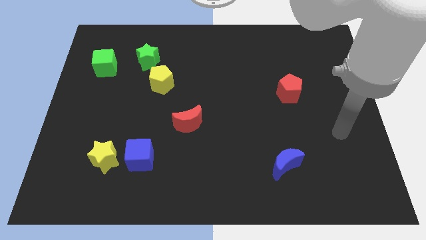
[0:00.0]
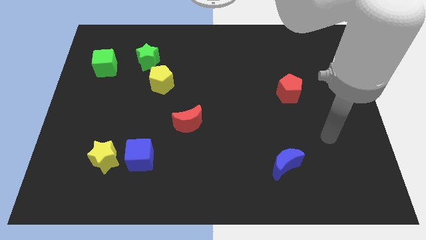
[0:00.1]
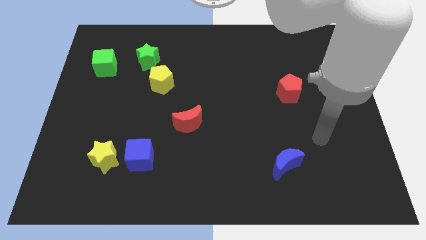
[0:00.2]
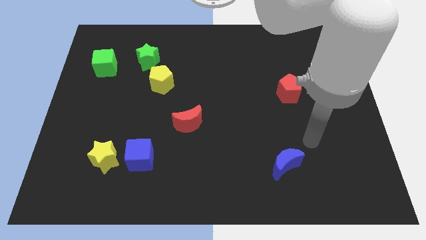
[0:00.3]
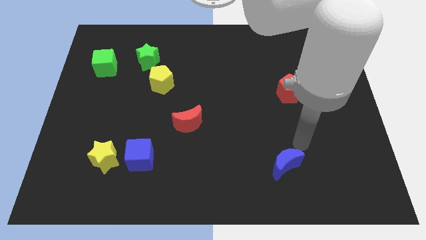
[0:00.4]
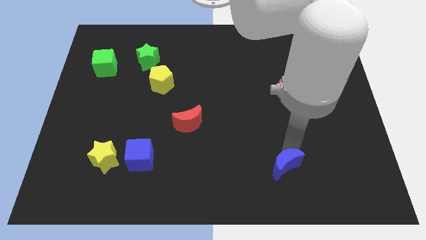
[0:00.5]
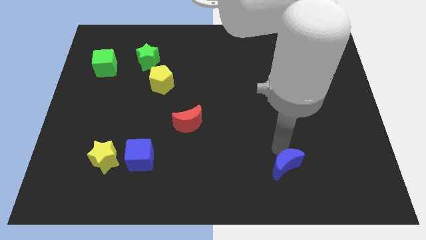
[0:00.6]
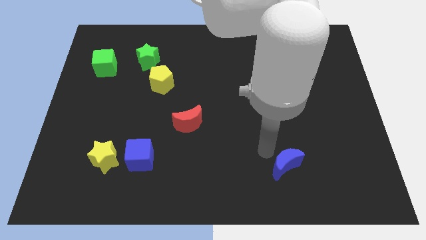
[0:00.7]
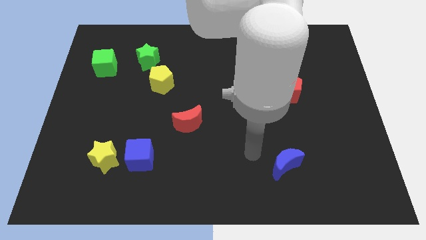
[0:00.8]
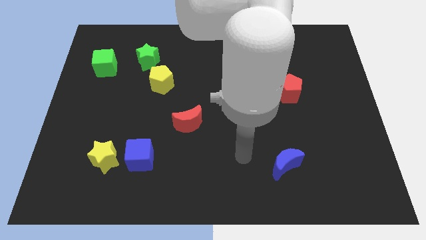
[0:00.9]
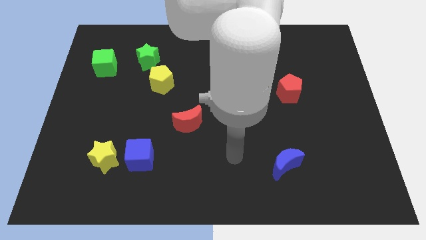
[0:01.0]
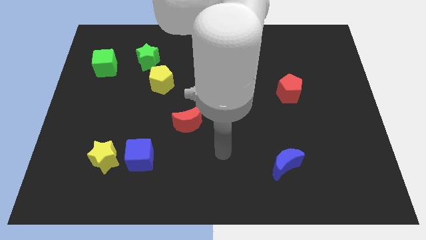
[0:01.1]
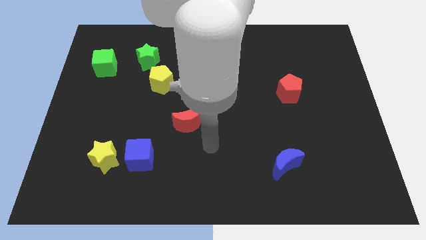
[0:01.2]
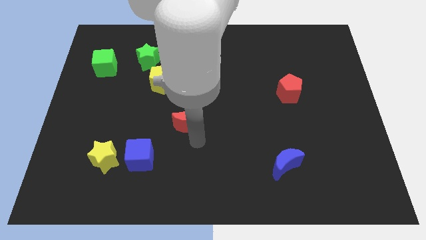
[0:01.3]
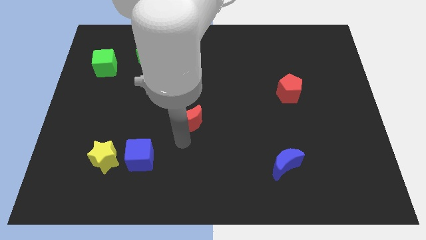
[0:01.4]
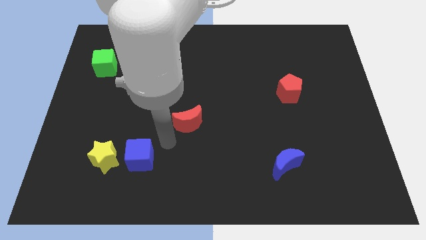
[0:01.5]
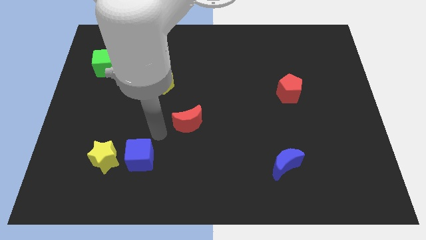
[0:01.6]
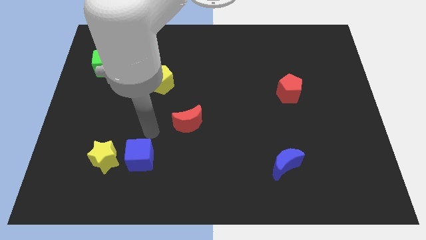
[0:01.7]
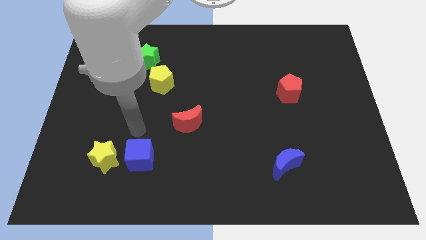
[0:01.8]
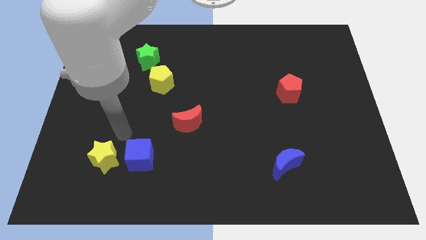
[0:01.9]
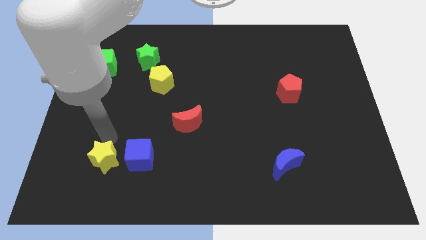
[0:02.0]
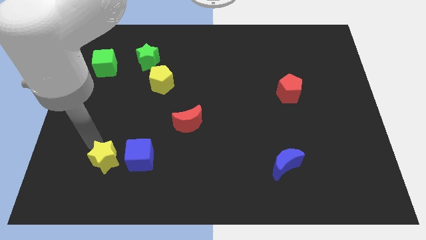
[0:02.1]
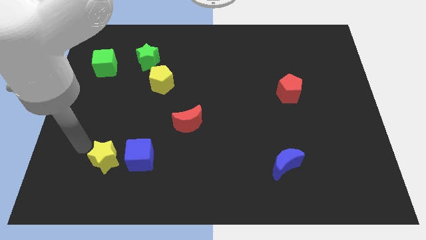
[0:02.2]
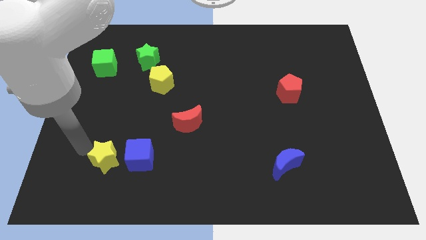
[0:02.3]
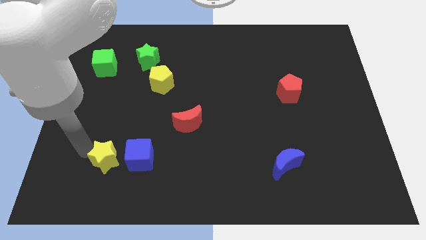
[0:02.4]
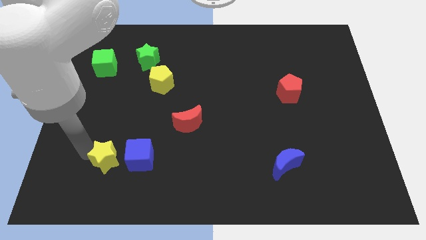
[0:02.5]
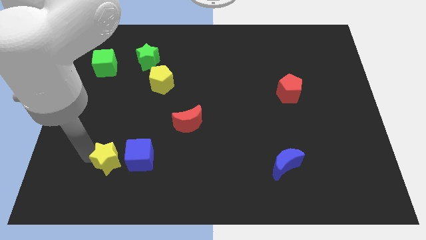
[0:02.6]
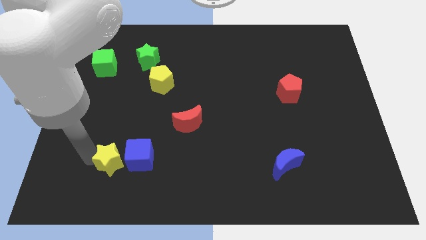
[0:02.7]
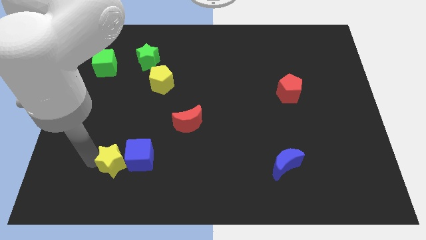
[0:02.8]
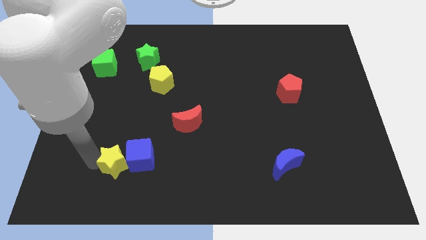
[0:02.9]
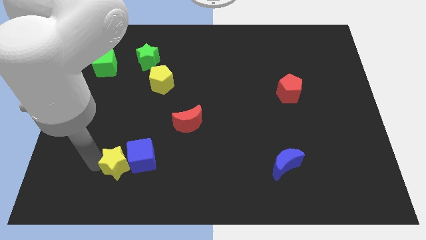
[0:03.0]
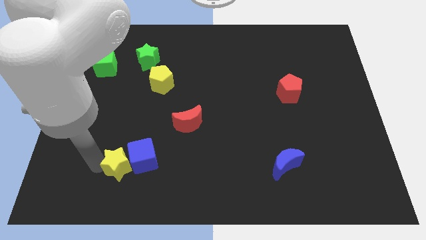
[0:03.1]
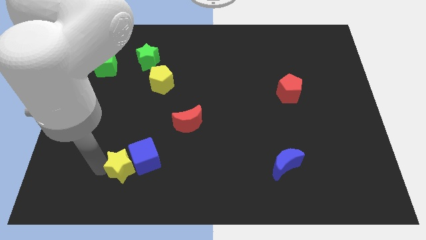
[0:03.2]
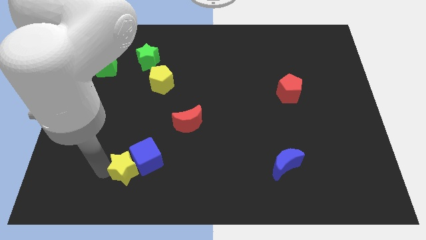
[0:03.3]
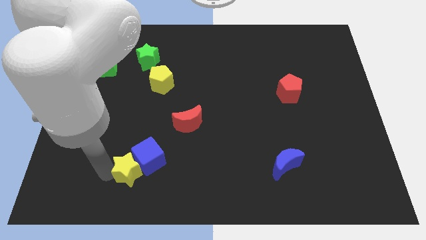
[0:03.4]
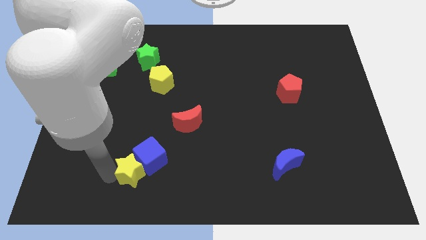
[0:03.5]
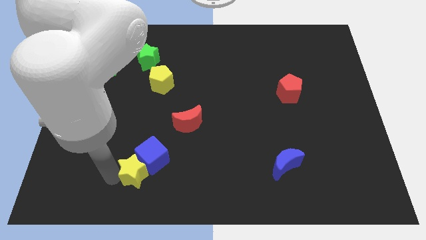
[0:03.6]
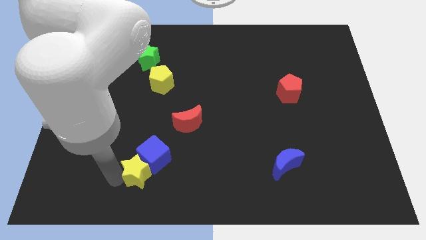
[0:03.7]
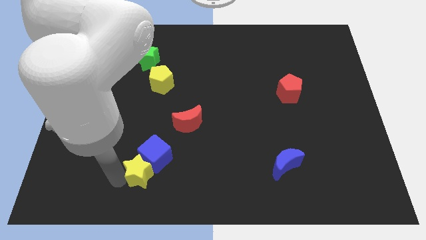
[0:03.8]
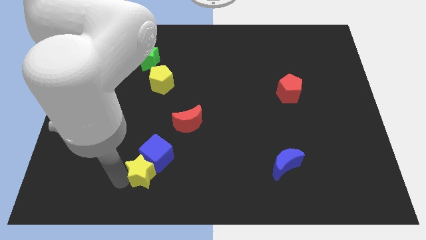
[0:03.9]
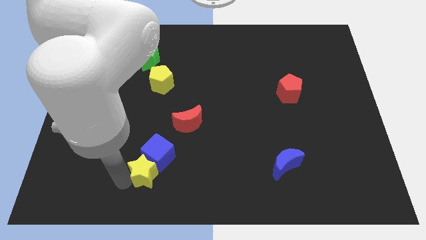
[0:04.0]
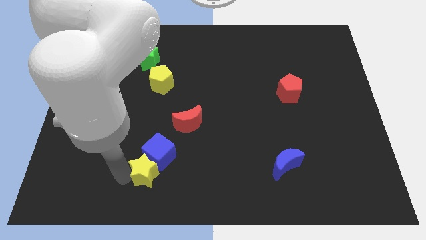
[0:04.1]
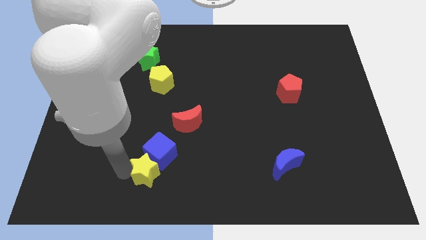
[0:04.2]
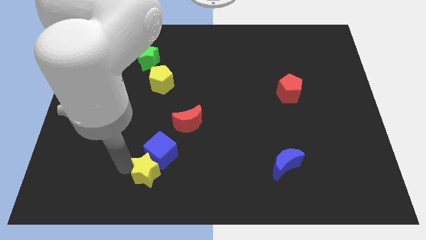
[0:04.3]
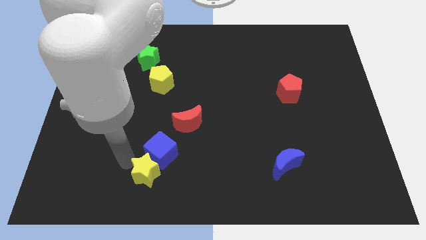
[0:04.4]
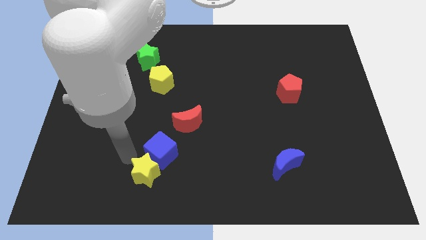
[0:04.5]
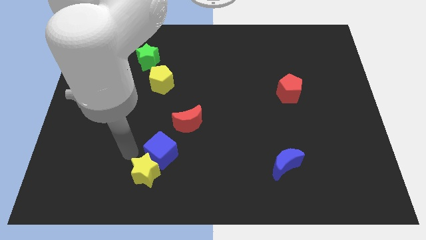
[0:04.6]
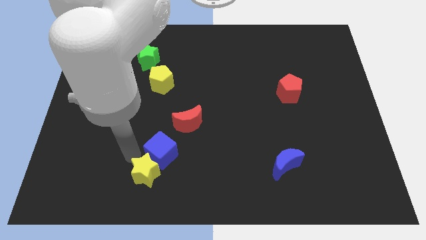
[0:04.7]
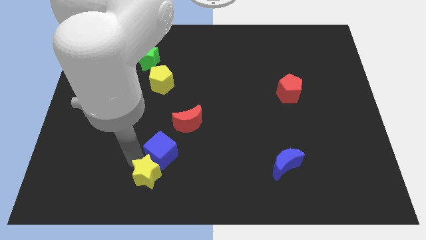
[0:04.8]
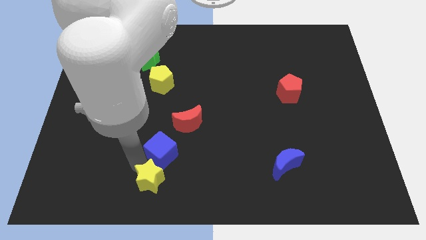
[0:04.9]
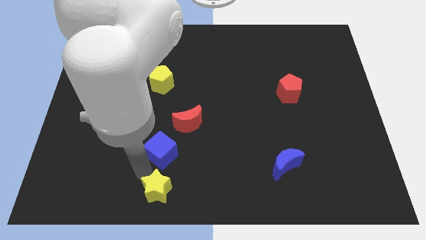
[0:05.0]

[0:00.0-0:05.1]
put the yellow star to the bottom side

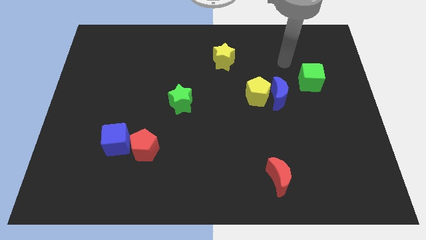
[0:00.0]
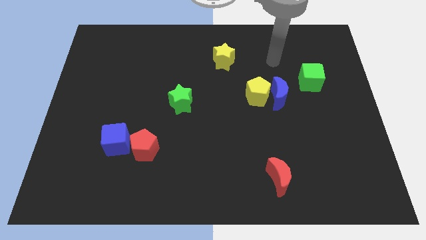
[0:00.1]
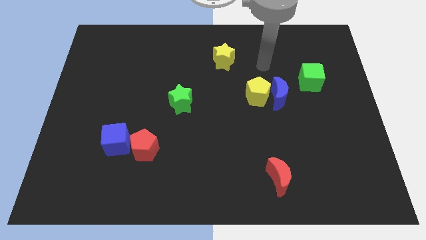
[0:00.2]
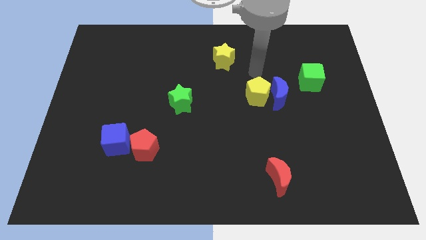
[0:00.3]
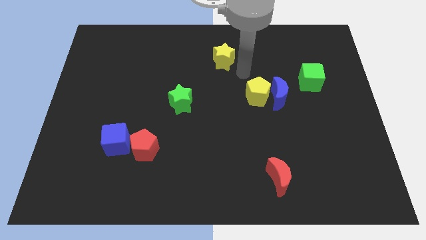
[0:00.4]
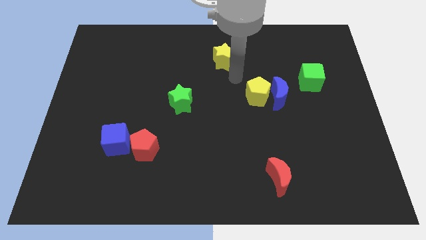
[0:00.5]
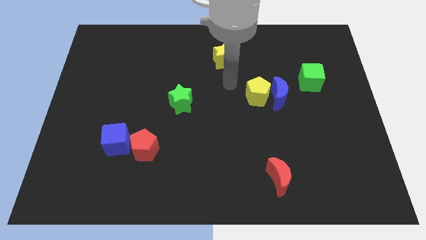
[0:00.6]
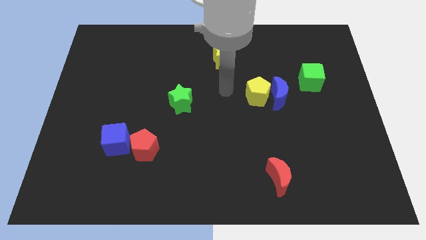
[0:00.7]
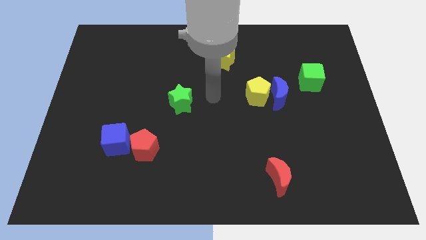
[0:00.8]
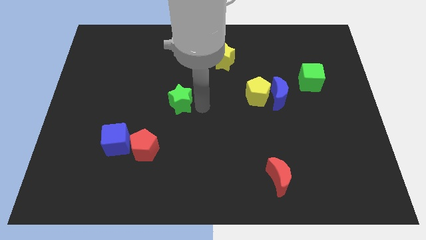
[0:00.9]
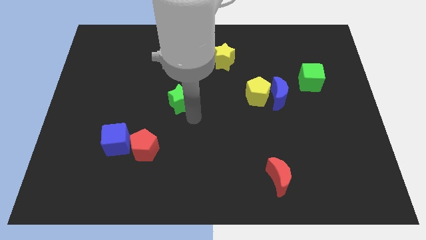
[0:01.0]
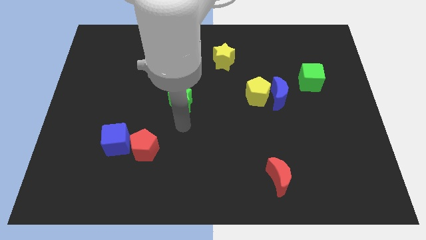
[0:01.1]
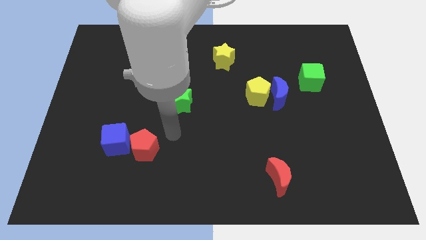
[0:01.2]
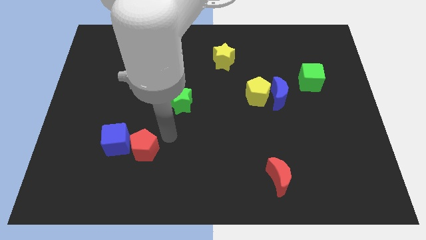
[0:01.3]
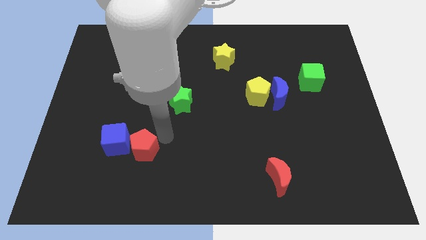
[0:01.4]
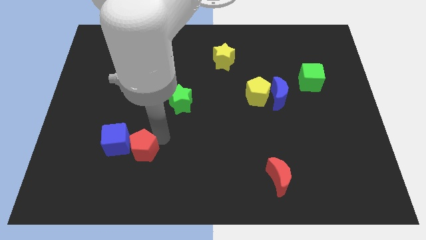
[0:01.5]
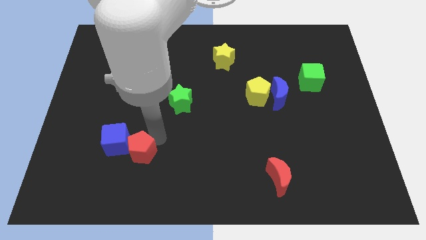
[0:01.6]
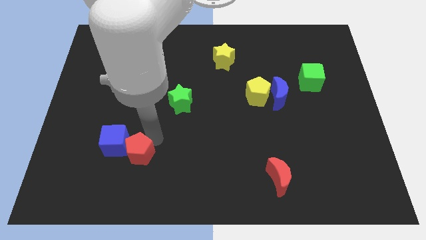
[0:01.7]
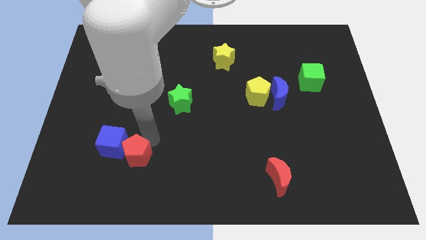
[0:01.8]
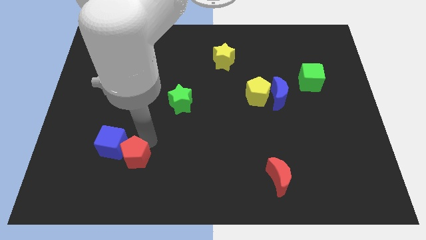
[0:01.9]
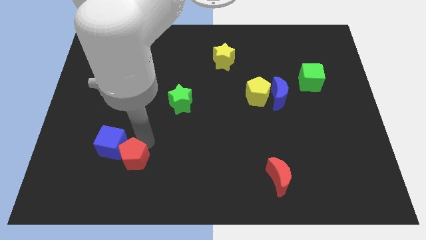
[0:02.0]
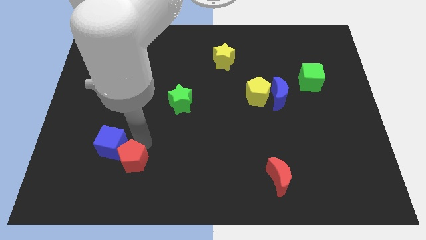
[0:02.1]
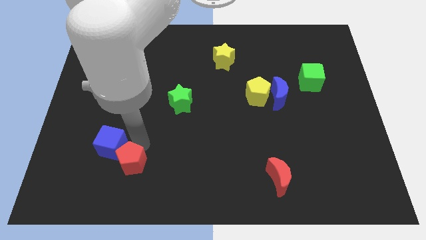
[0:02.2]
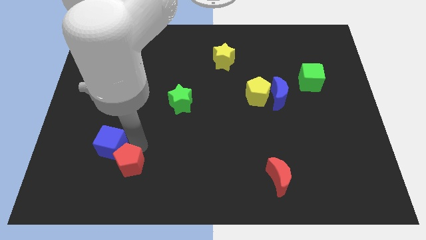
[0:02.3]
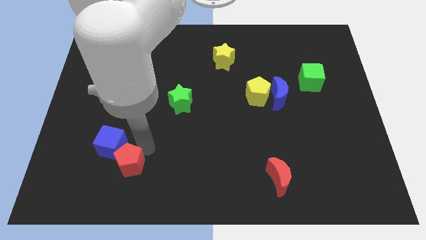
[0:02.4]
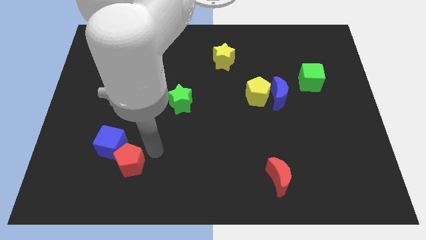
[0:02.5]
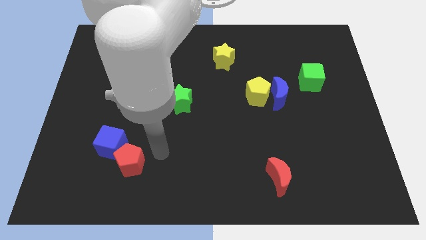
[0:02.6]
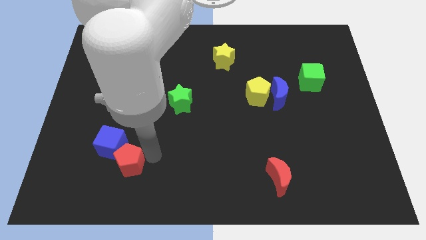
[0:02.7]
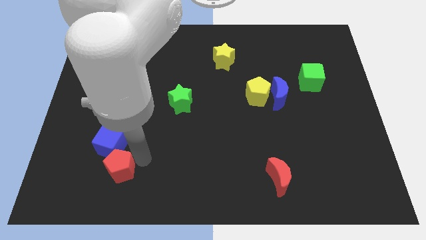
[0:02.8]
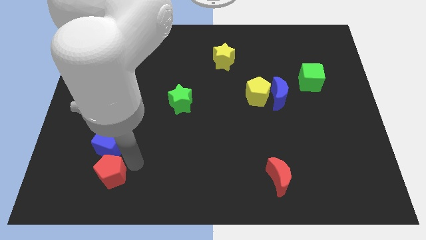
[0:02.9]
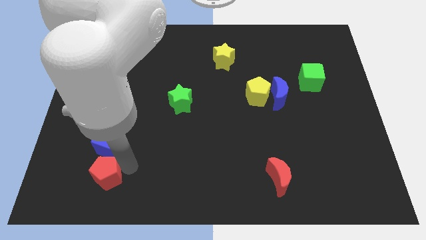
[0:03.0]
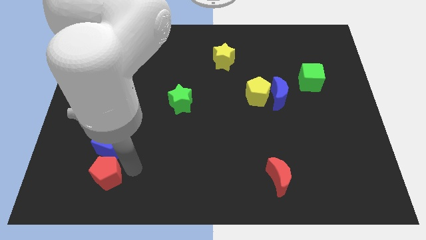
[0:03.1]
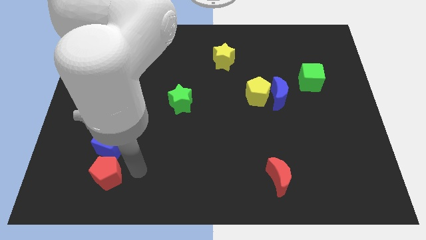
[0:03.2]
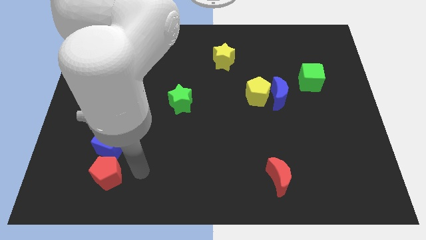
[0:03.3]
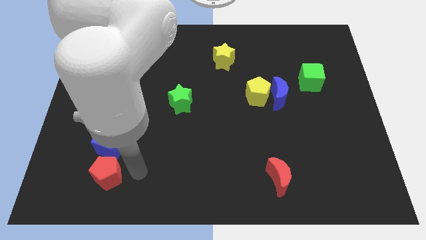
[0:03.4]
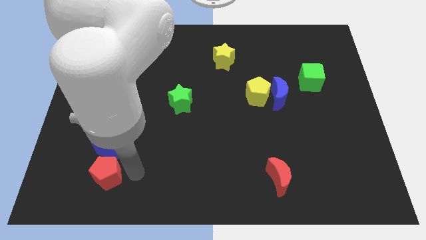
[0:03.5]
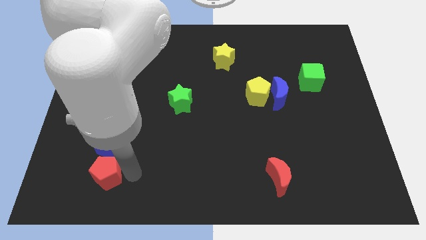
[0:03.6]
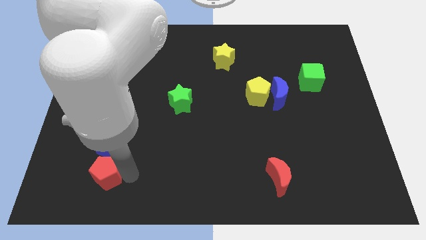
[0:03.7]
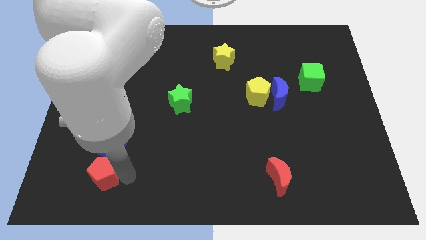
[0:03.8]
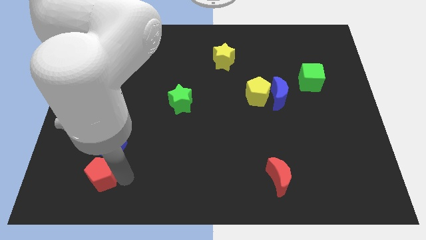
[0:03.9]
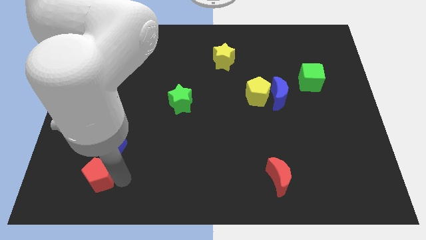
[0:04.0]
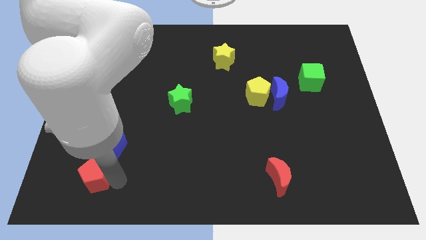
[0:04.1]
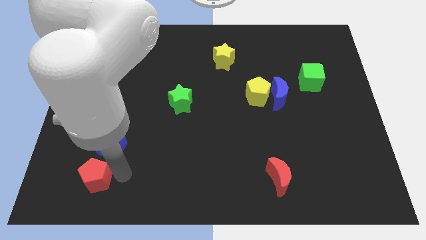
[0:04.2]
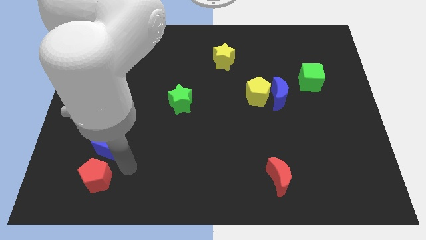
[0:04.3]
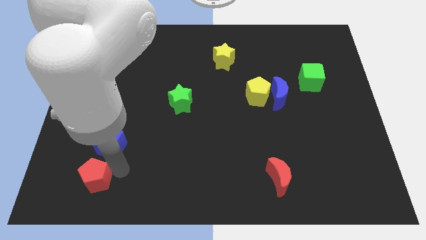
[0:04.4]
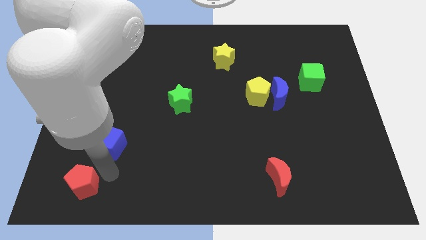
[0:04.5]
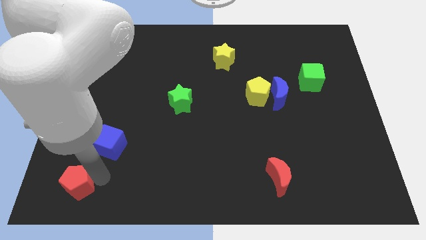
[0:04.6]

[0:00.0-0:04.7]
move the red pentagon to the bottom left
